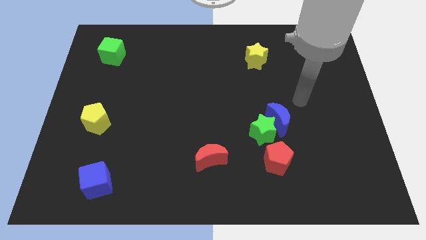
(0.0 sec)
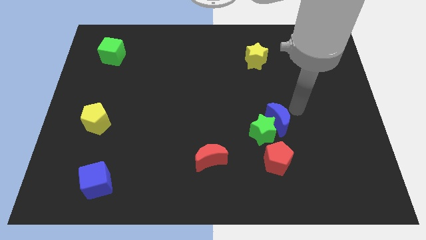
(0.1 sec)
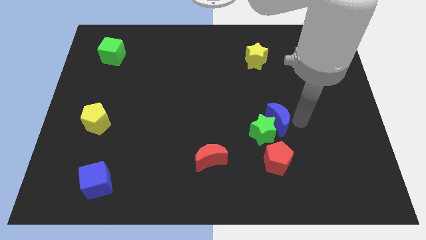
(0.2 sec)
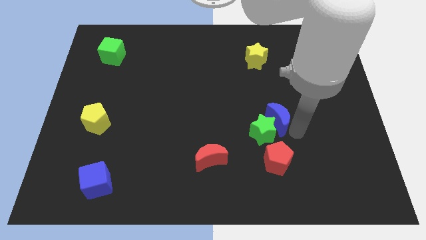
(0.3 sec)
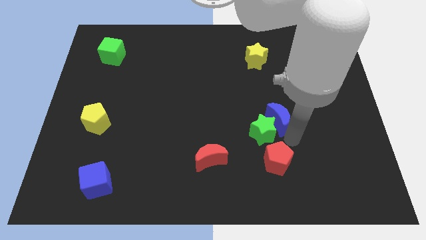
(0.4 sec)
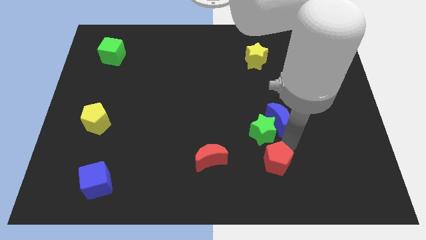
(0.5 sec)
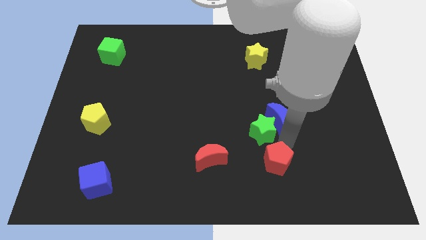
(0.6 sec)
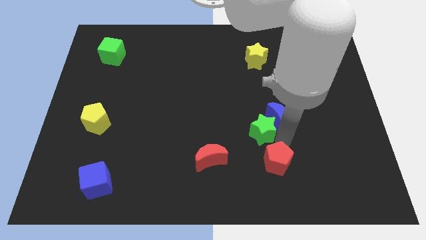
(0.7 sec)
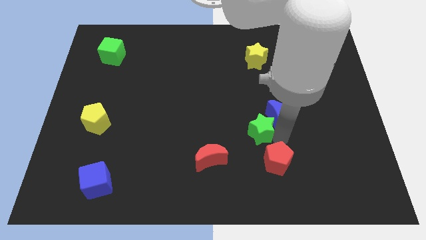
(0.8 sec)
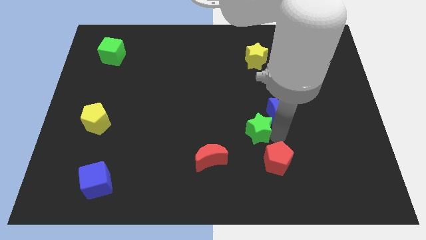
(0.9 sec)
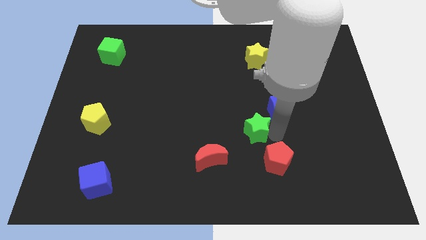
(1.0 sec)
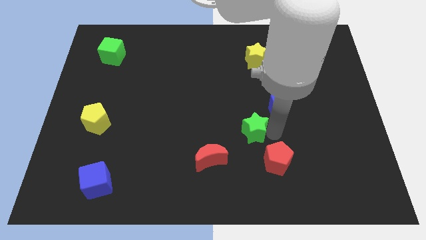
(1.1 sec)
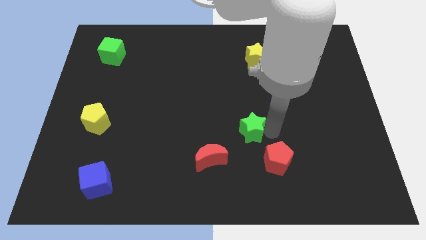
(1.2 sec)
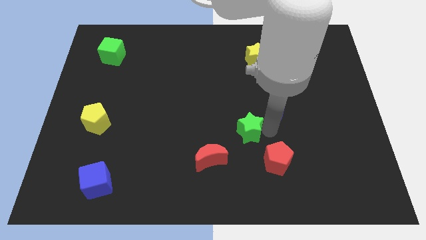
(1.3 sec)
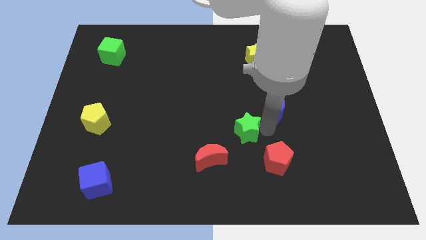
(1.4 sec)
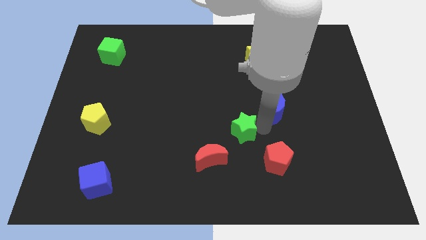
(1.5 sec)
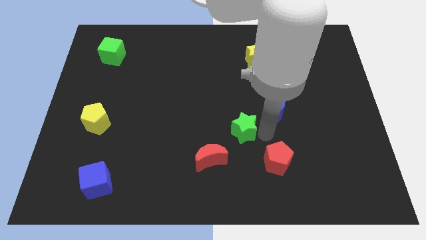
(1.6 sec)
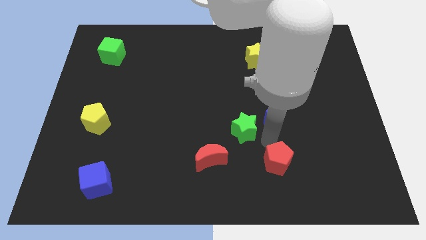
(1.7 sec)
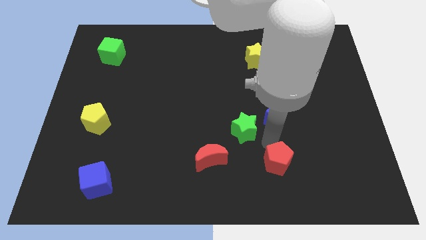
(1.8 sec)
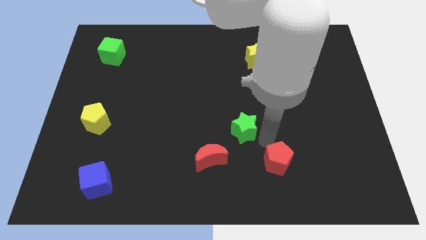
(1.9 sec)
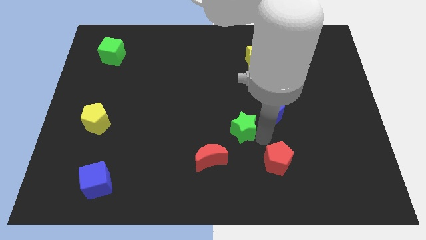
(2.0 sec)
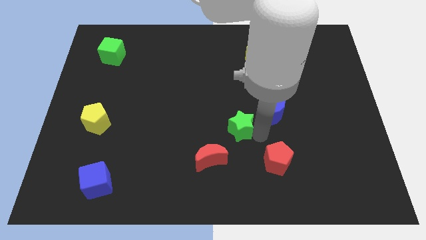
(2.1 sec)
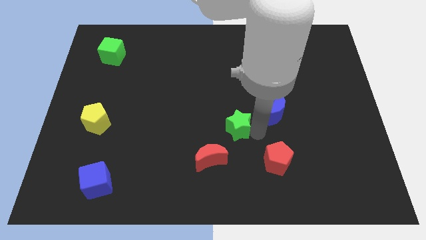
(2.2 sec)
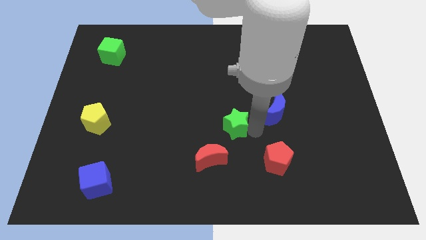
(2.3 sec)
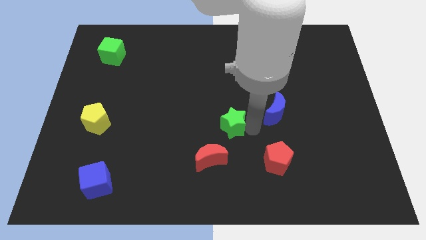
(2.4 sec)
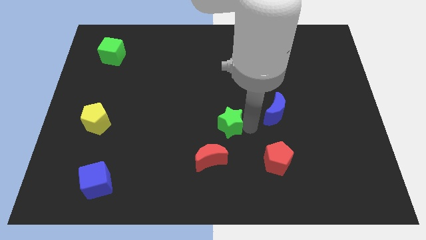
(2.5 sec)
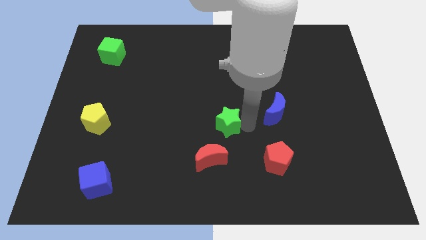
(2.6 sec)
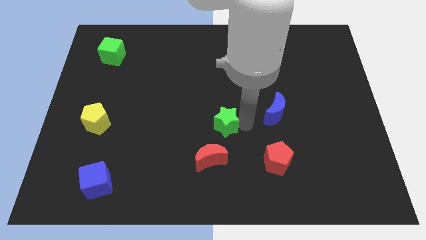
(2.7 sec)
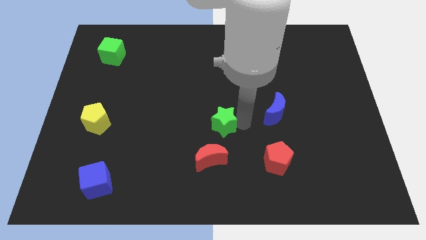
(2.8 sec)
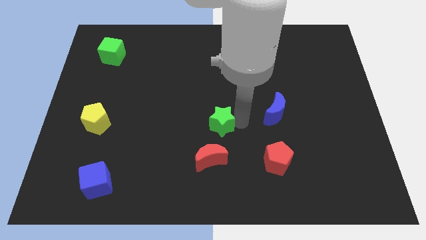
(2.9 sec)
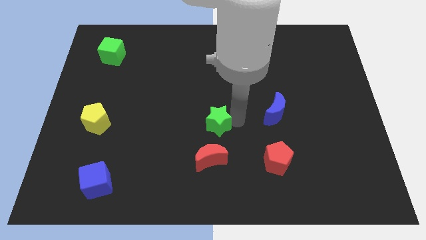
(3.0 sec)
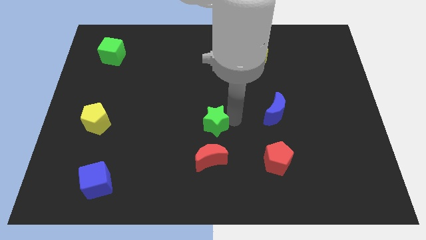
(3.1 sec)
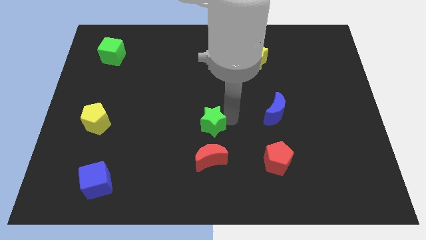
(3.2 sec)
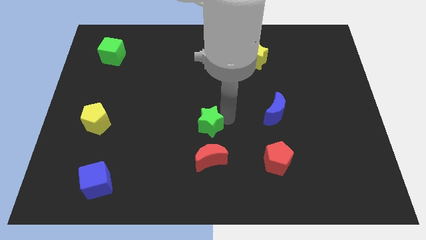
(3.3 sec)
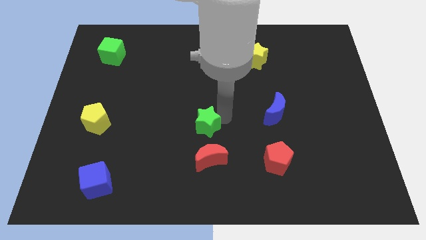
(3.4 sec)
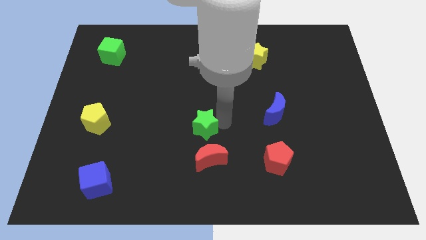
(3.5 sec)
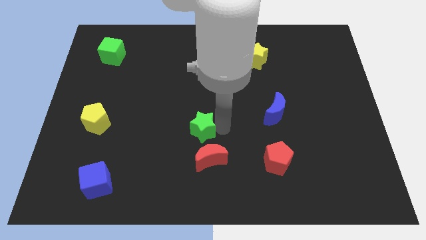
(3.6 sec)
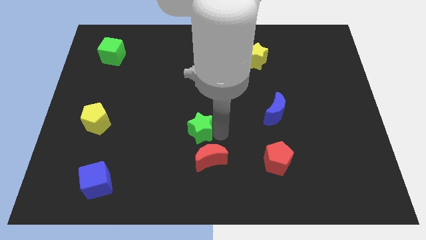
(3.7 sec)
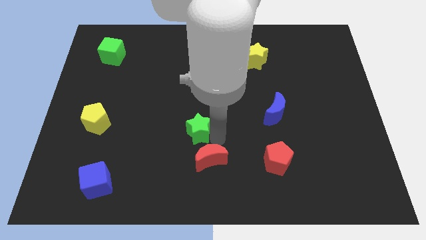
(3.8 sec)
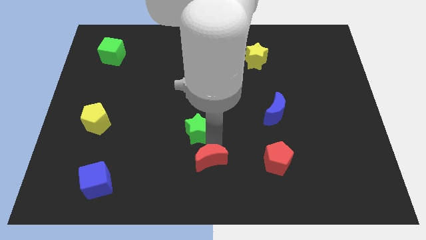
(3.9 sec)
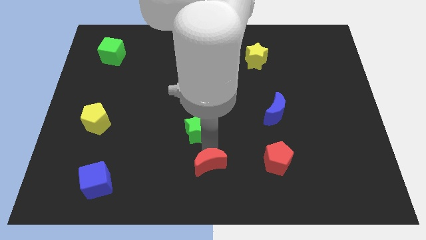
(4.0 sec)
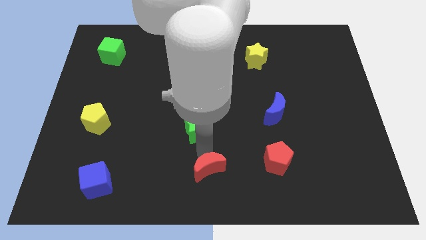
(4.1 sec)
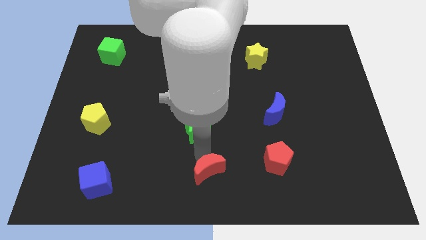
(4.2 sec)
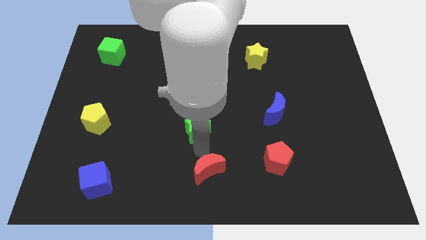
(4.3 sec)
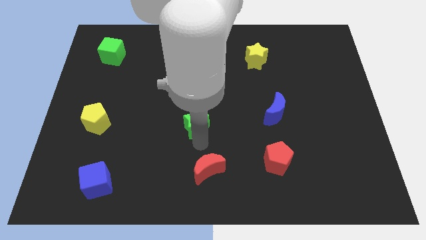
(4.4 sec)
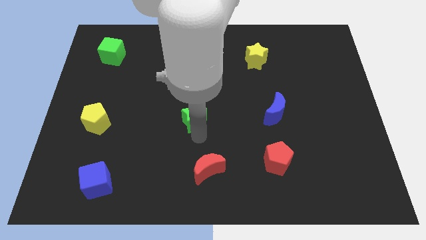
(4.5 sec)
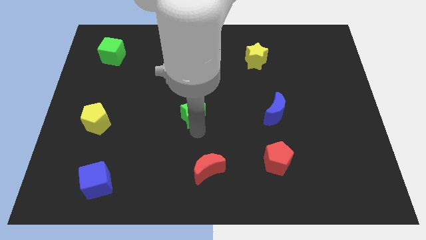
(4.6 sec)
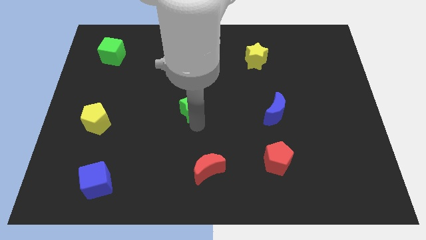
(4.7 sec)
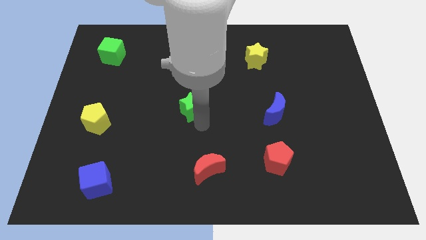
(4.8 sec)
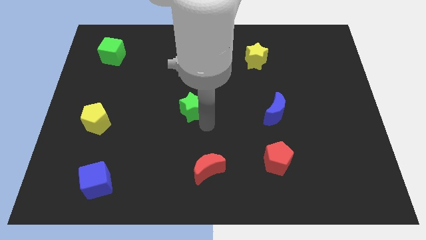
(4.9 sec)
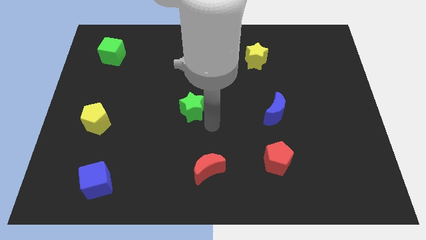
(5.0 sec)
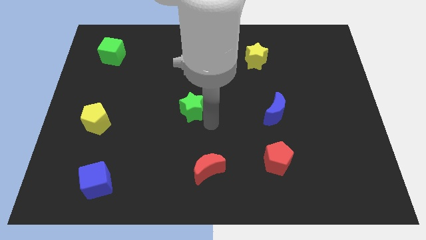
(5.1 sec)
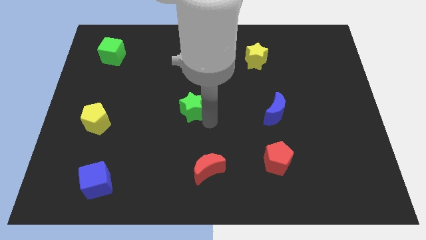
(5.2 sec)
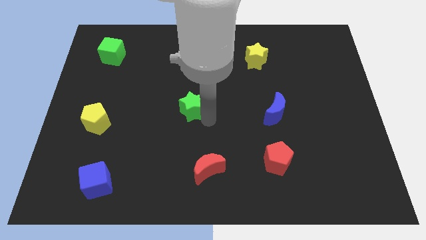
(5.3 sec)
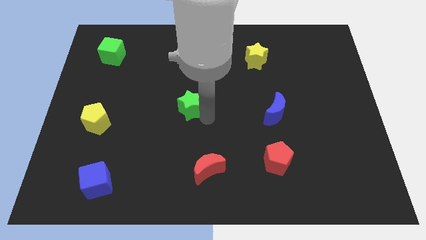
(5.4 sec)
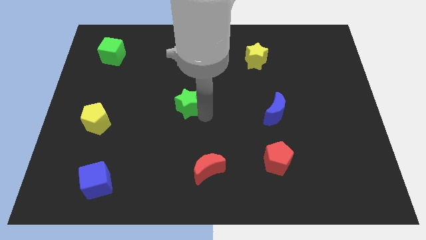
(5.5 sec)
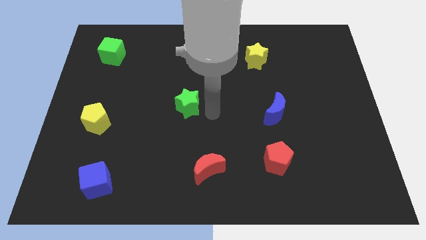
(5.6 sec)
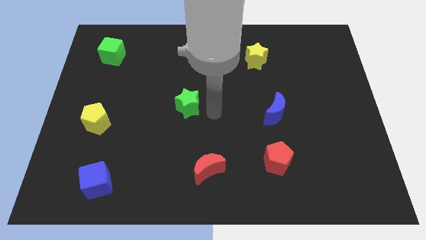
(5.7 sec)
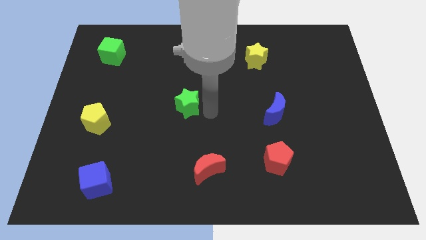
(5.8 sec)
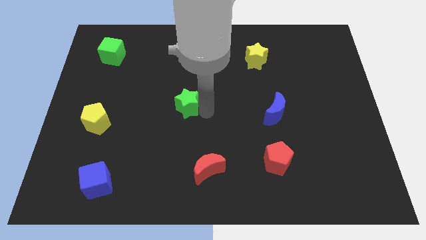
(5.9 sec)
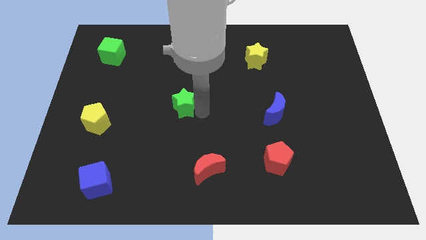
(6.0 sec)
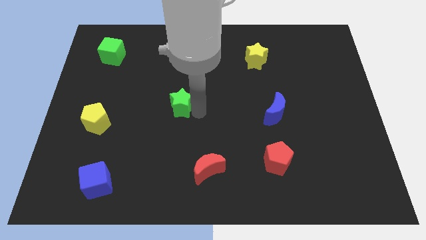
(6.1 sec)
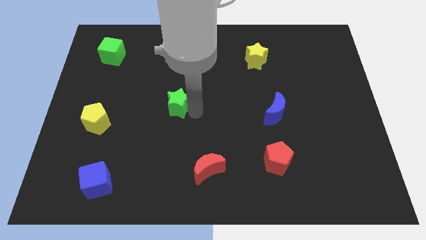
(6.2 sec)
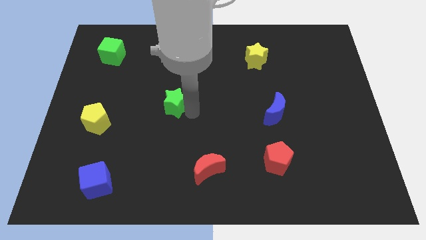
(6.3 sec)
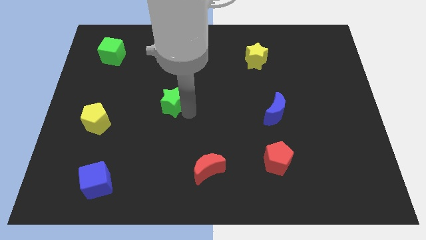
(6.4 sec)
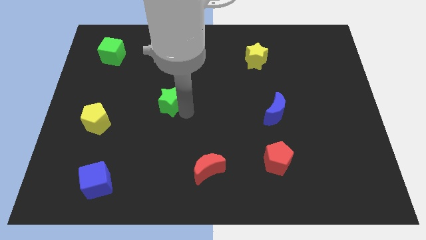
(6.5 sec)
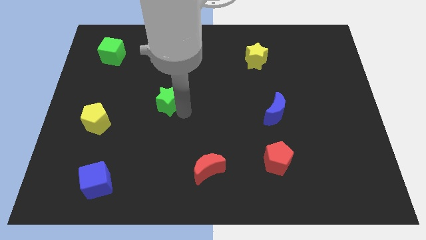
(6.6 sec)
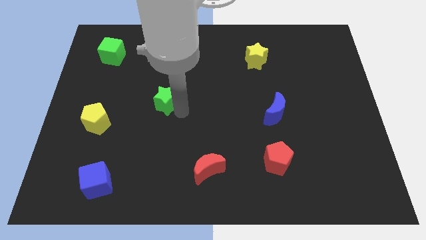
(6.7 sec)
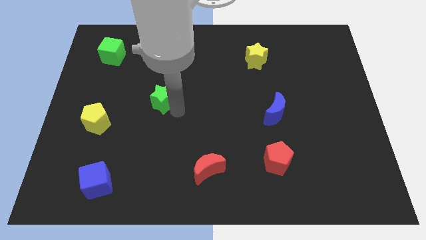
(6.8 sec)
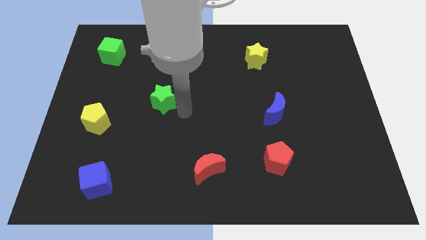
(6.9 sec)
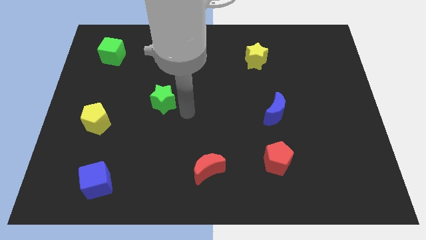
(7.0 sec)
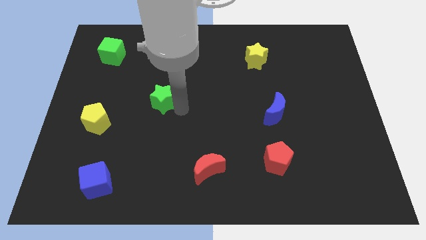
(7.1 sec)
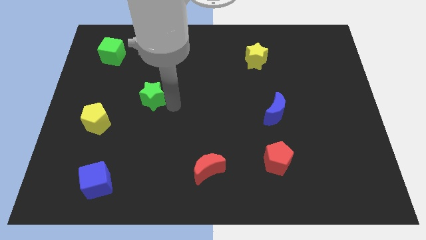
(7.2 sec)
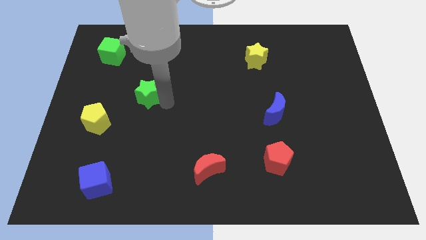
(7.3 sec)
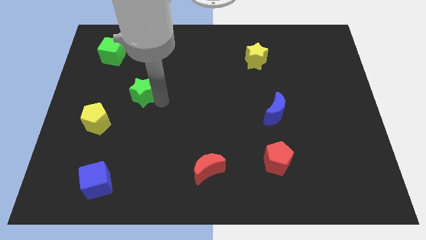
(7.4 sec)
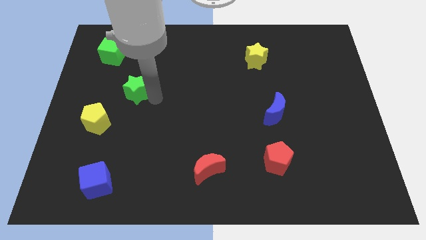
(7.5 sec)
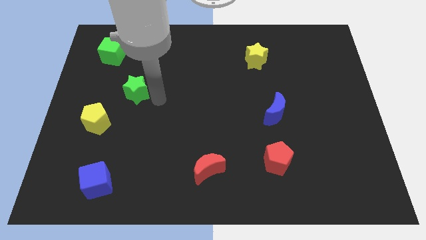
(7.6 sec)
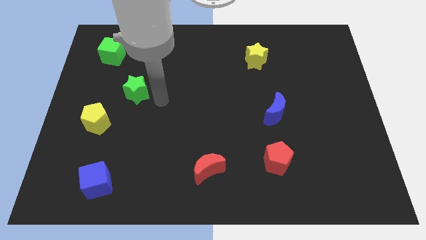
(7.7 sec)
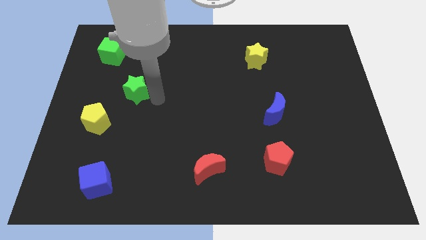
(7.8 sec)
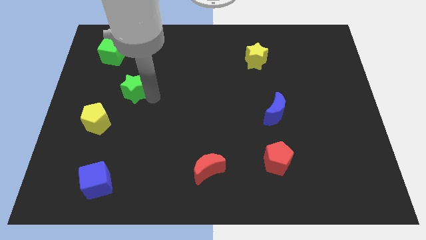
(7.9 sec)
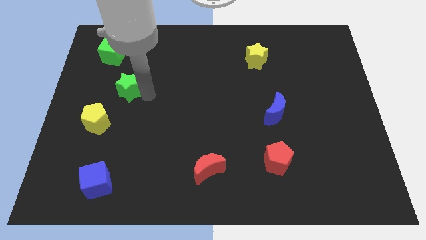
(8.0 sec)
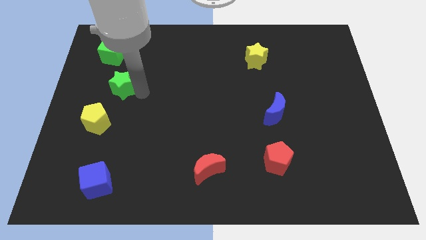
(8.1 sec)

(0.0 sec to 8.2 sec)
move the green star to the bottom side of the green cube
